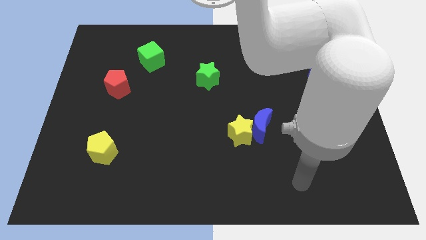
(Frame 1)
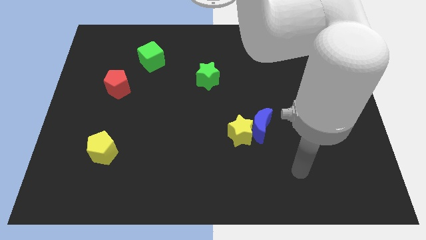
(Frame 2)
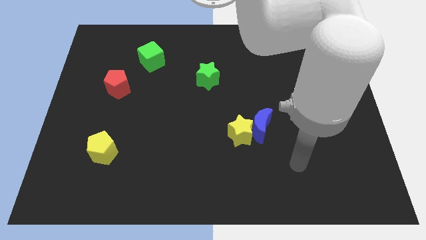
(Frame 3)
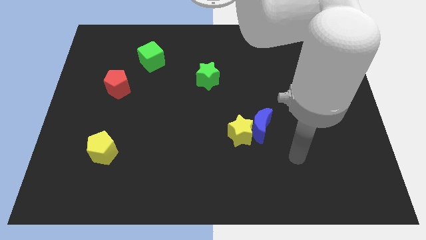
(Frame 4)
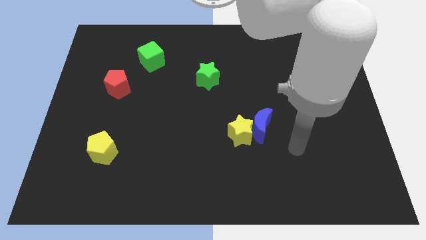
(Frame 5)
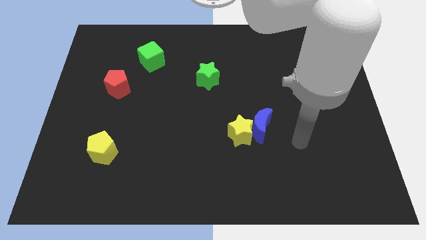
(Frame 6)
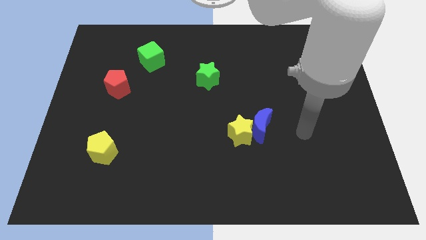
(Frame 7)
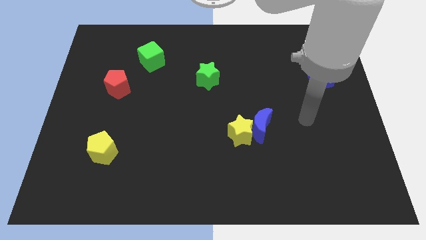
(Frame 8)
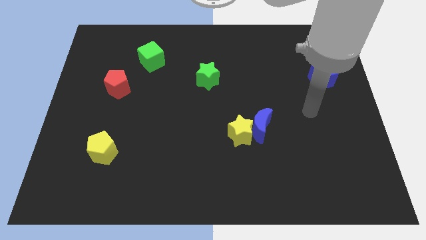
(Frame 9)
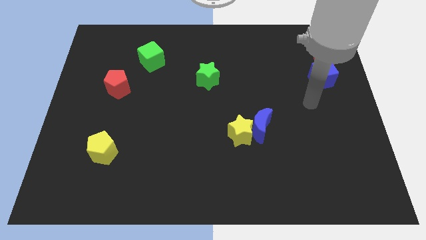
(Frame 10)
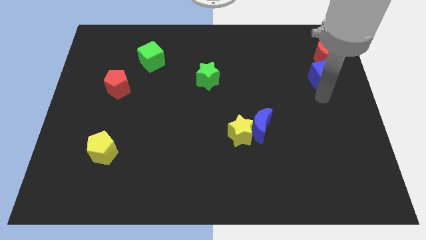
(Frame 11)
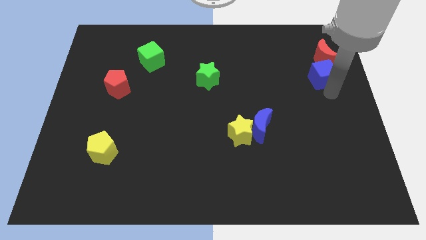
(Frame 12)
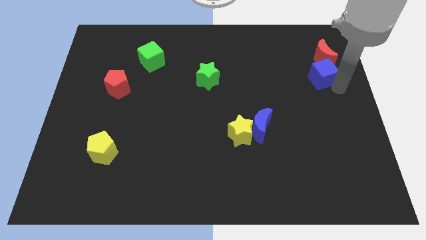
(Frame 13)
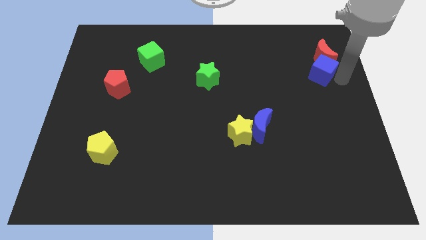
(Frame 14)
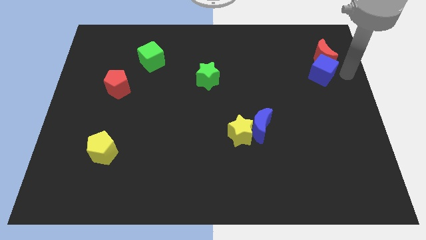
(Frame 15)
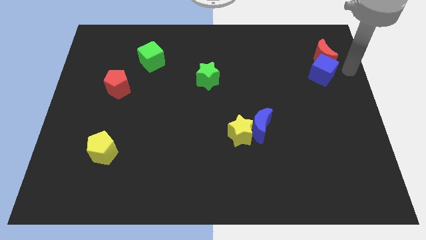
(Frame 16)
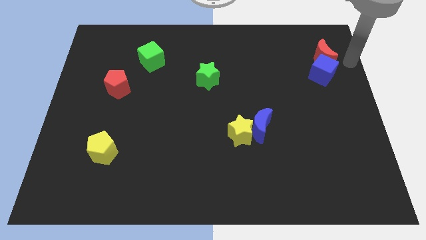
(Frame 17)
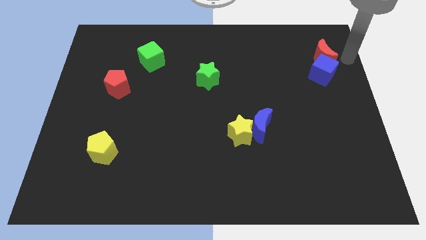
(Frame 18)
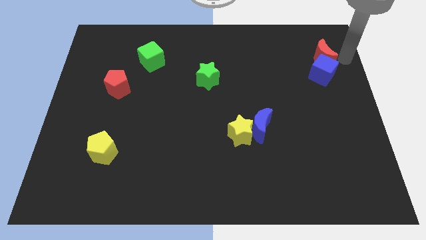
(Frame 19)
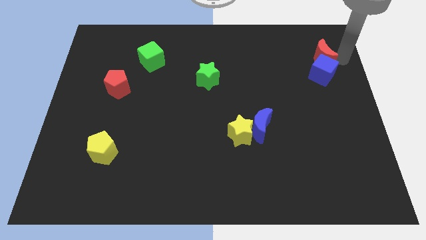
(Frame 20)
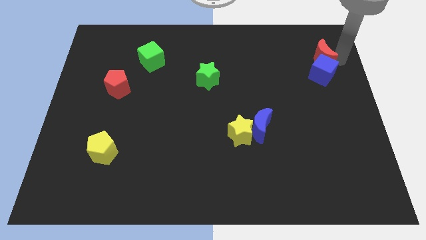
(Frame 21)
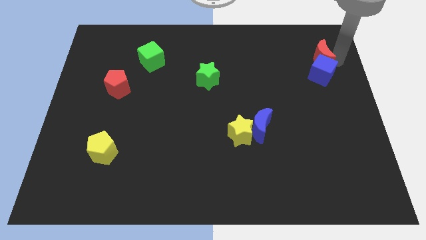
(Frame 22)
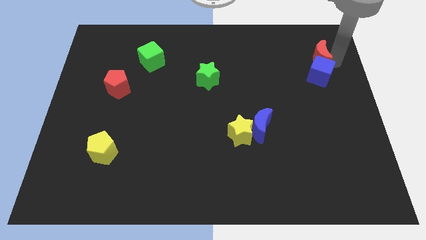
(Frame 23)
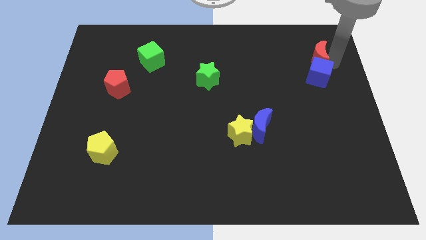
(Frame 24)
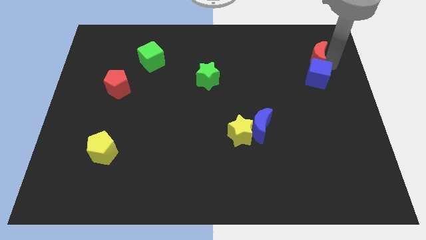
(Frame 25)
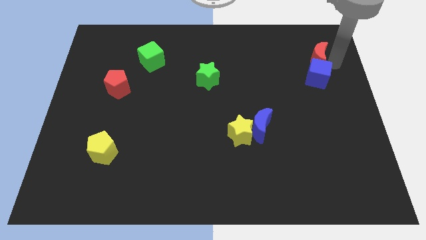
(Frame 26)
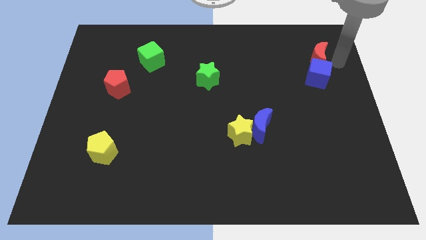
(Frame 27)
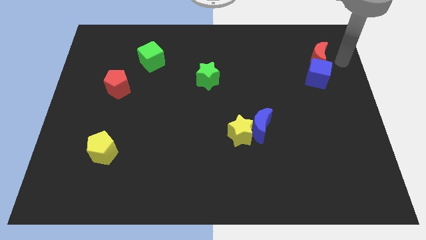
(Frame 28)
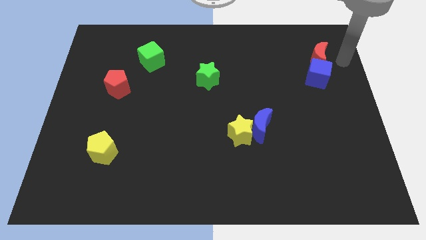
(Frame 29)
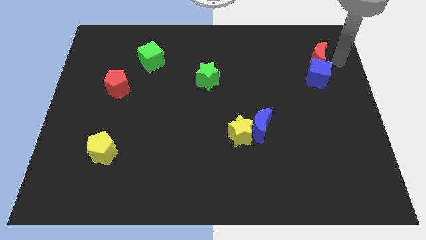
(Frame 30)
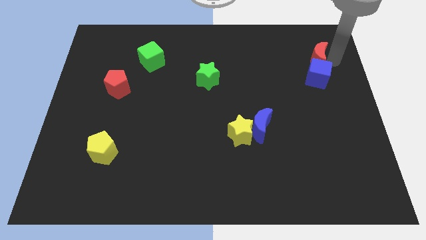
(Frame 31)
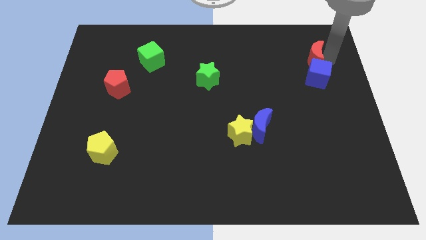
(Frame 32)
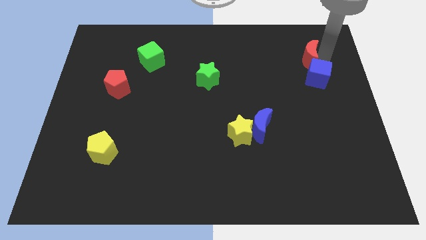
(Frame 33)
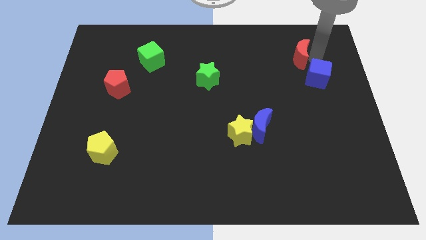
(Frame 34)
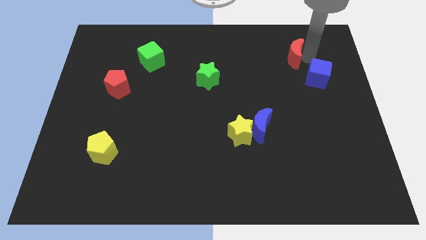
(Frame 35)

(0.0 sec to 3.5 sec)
push the red moon left somewhat

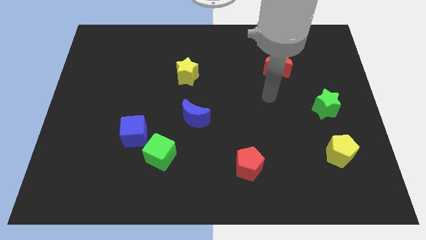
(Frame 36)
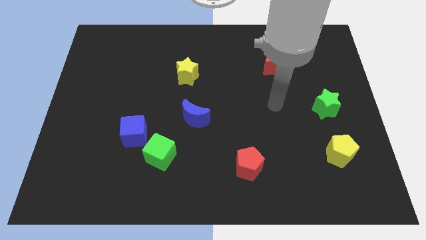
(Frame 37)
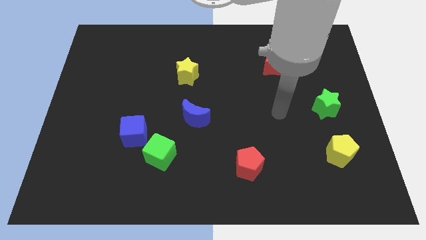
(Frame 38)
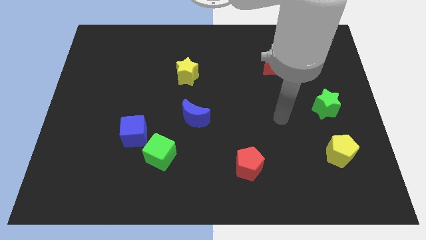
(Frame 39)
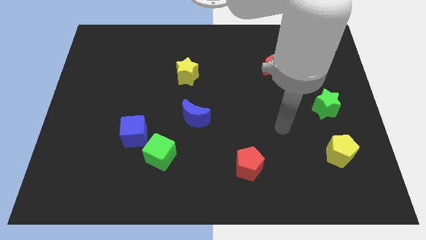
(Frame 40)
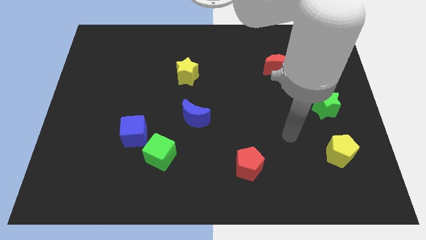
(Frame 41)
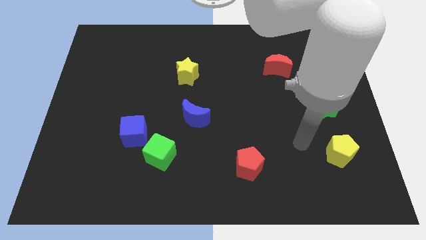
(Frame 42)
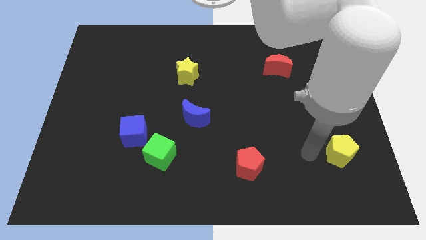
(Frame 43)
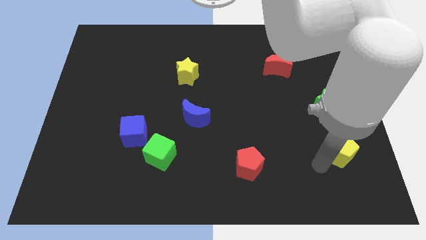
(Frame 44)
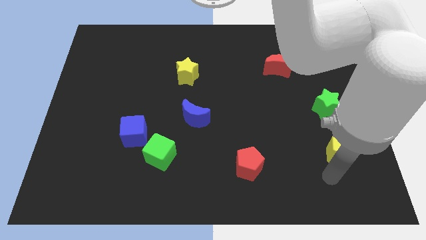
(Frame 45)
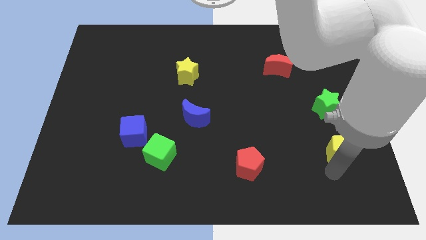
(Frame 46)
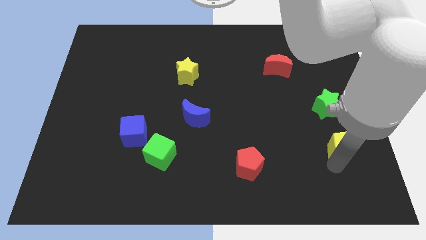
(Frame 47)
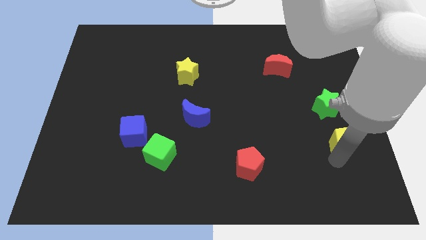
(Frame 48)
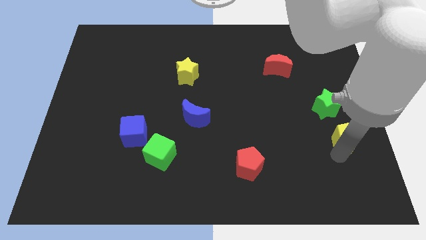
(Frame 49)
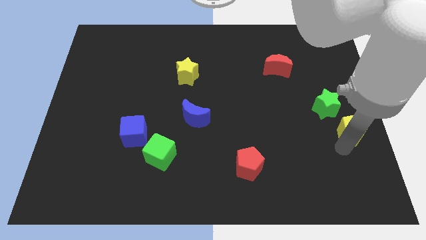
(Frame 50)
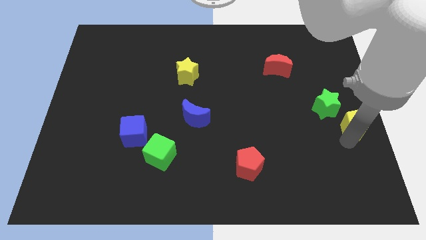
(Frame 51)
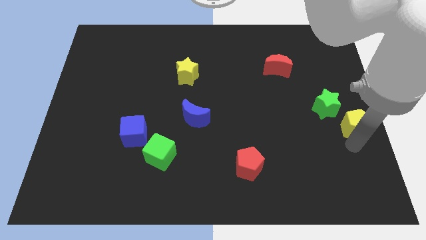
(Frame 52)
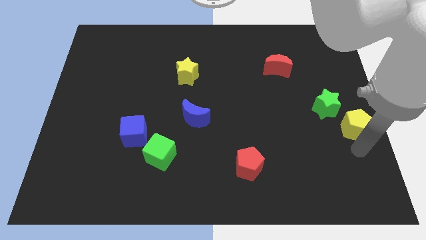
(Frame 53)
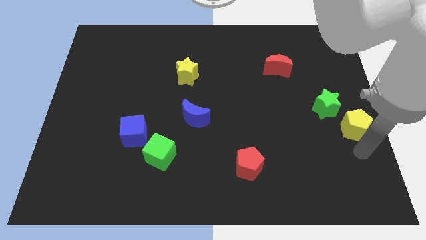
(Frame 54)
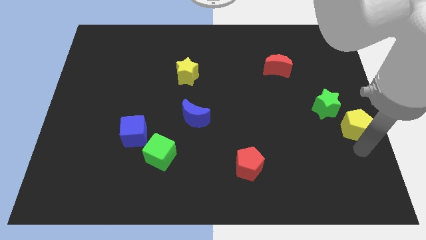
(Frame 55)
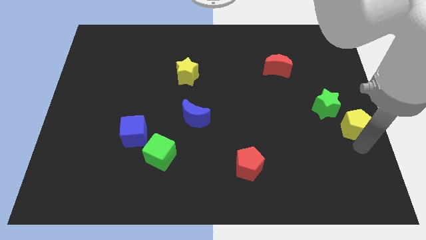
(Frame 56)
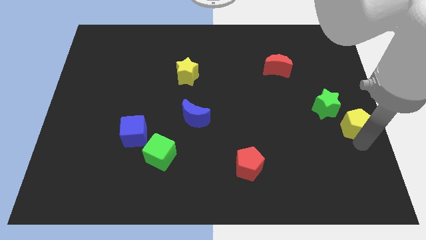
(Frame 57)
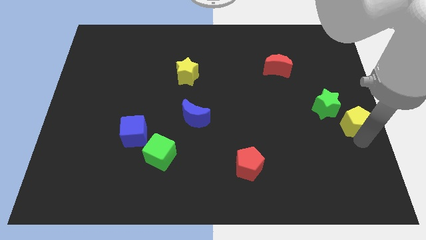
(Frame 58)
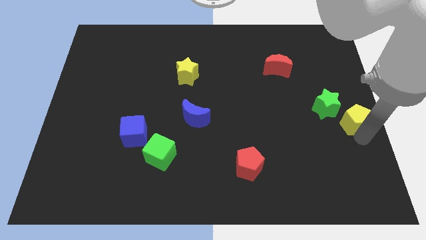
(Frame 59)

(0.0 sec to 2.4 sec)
slightly slide the yellow pentagon upwards

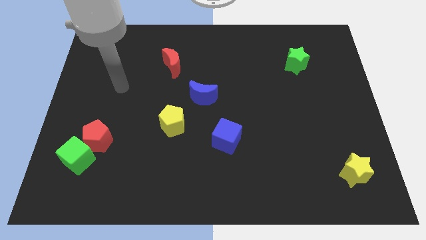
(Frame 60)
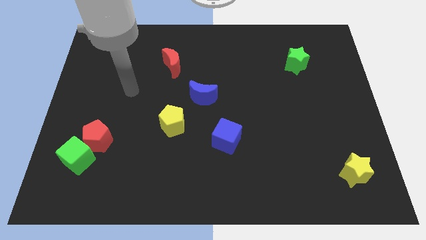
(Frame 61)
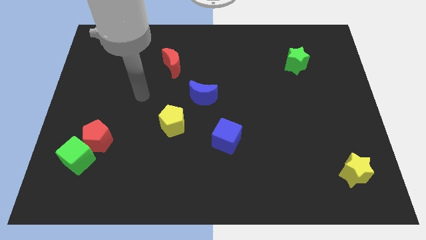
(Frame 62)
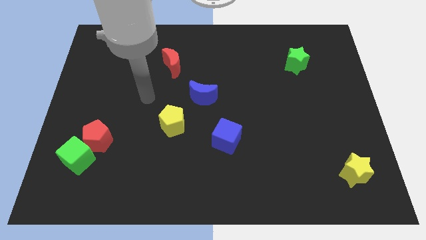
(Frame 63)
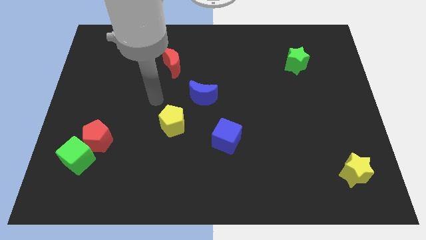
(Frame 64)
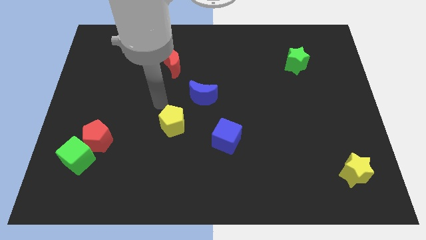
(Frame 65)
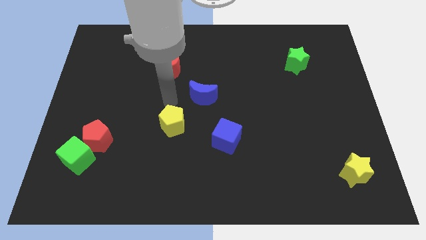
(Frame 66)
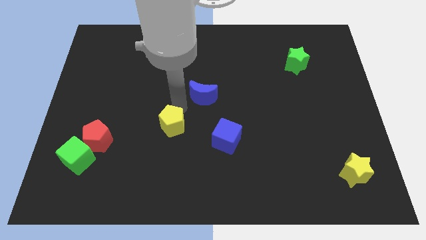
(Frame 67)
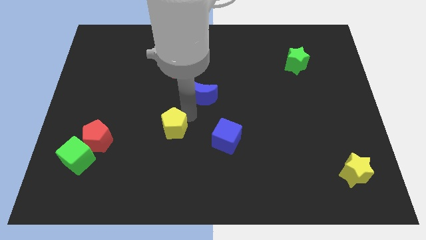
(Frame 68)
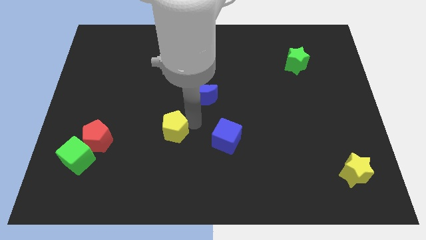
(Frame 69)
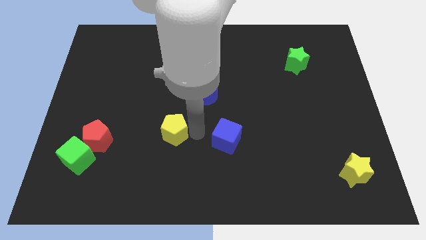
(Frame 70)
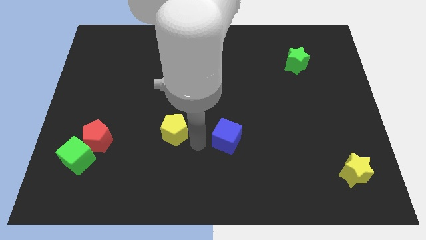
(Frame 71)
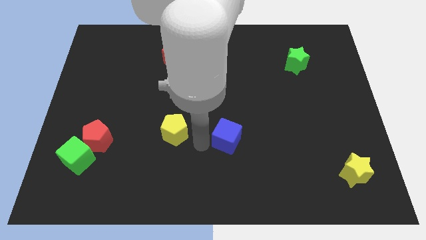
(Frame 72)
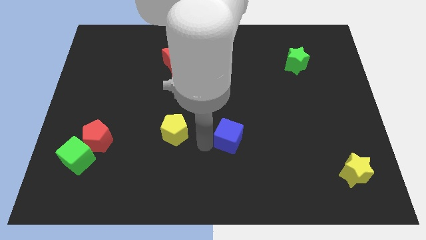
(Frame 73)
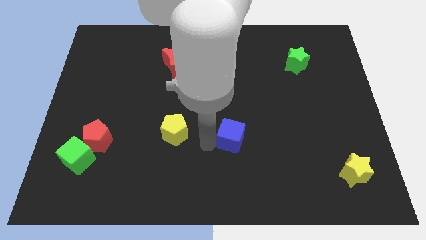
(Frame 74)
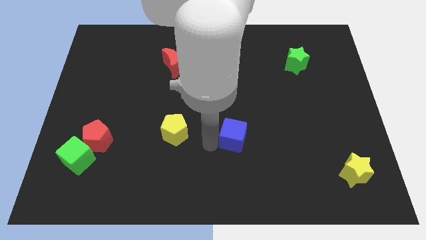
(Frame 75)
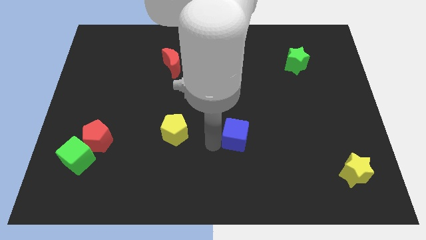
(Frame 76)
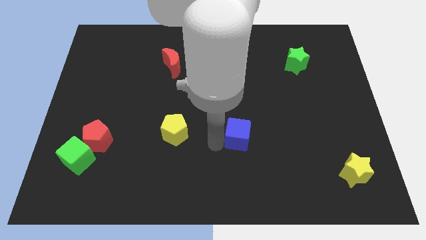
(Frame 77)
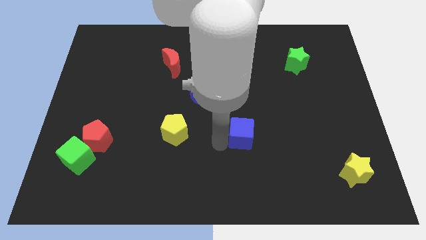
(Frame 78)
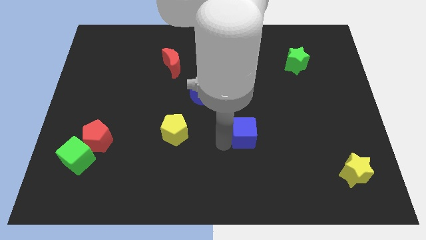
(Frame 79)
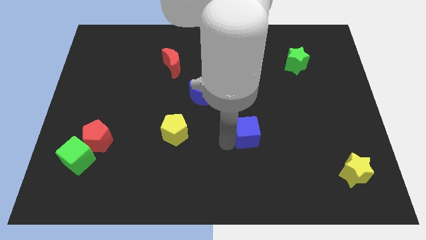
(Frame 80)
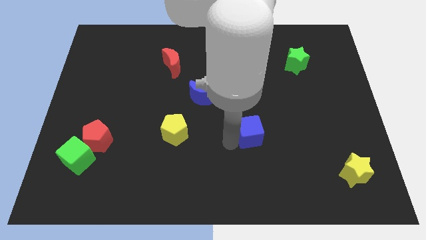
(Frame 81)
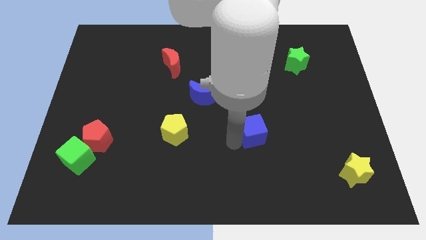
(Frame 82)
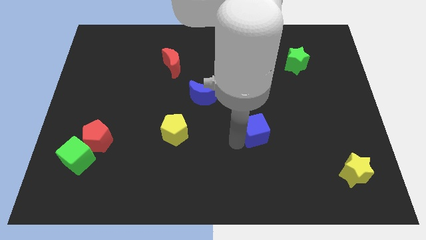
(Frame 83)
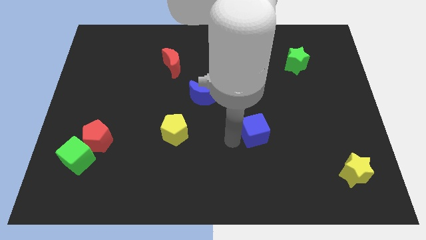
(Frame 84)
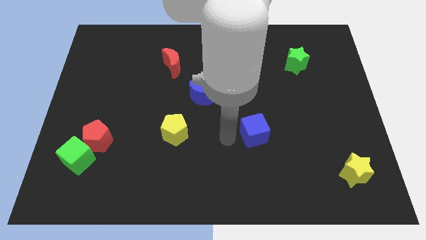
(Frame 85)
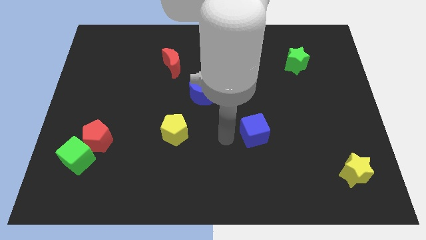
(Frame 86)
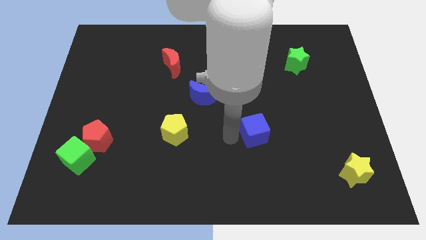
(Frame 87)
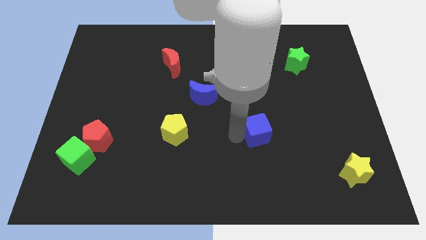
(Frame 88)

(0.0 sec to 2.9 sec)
push the blue cube right a little bit
